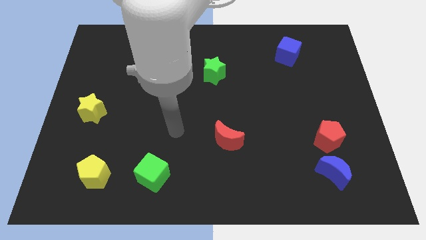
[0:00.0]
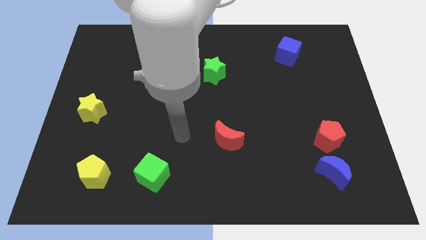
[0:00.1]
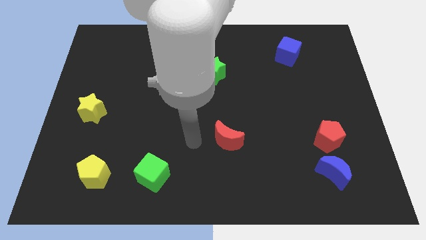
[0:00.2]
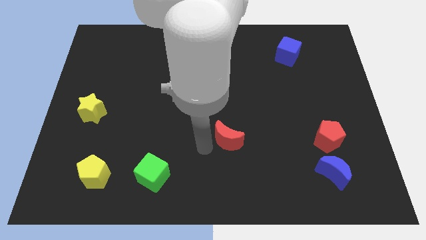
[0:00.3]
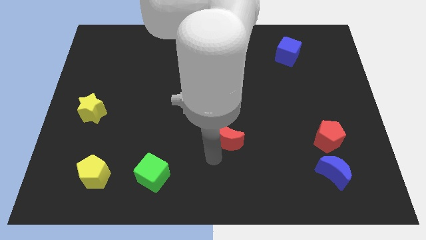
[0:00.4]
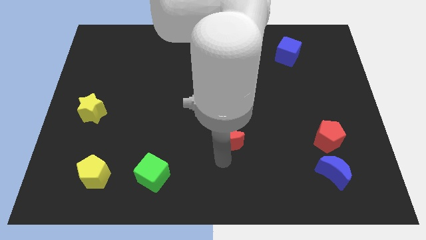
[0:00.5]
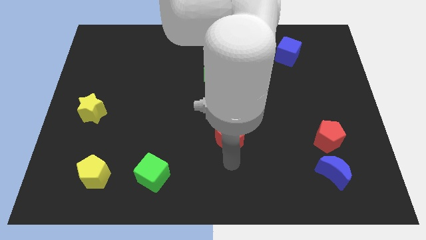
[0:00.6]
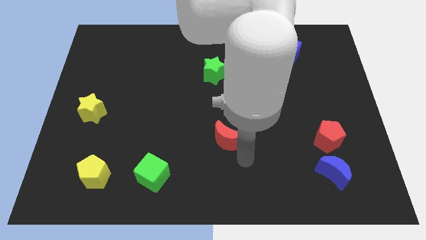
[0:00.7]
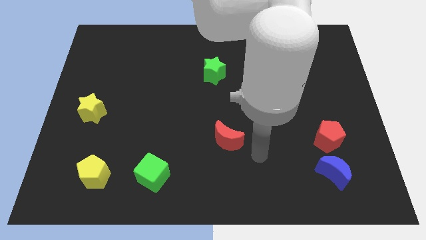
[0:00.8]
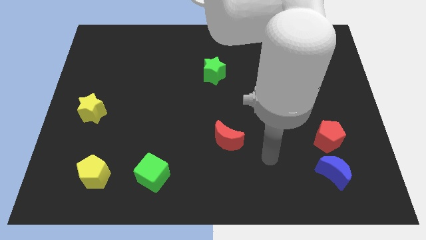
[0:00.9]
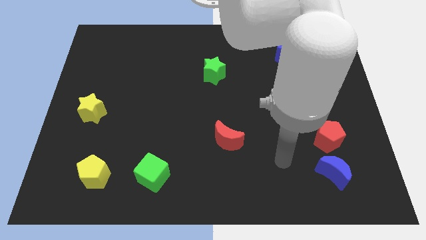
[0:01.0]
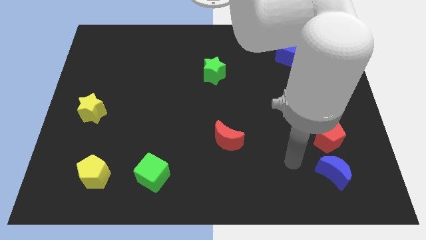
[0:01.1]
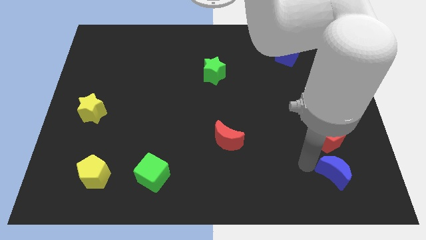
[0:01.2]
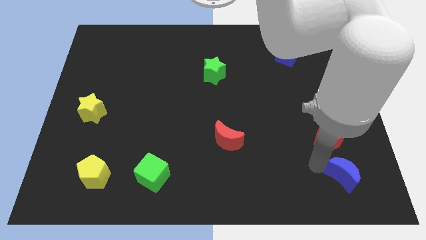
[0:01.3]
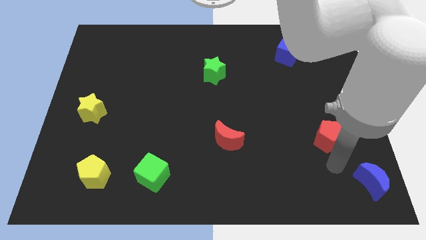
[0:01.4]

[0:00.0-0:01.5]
separate the red pentagon from the blue moon

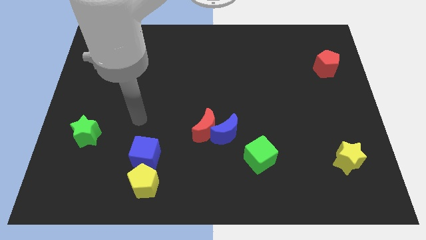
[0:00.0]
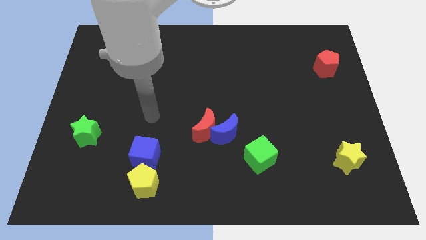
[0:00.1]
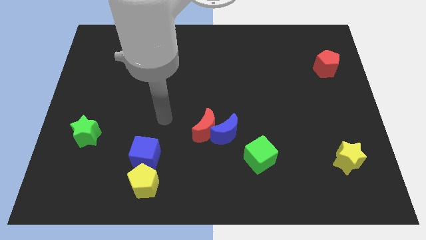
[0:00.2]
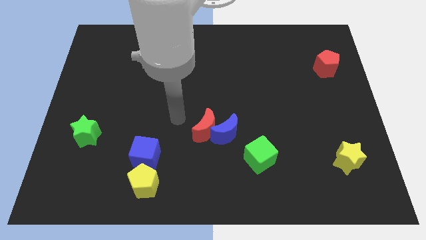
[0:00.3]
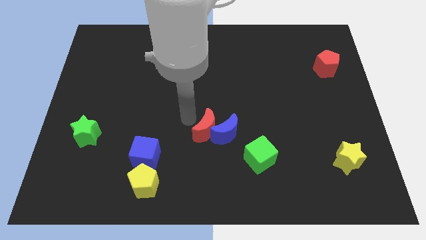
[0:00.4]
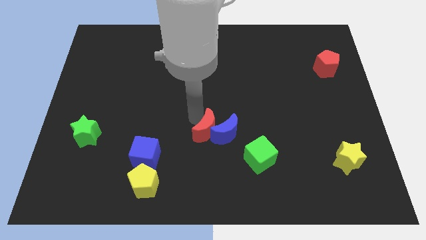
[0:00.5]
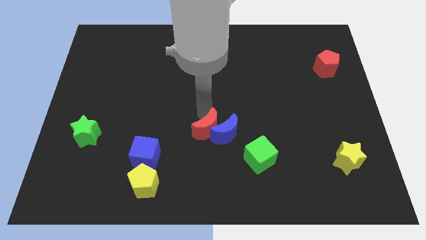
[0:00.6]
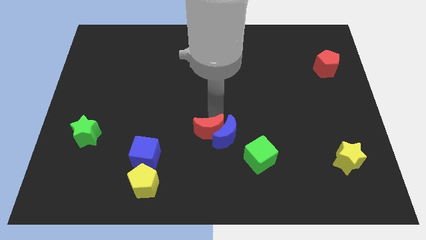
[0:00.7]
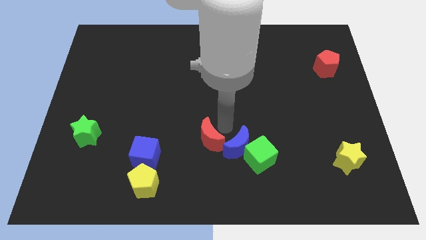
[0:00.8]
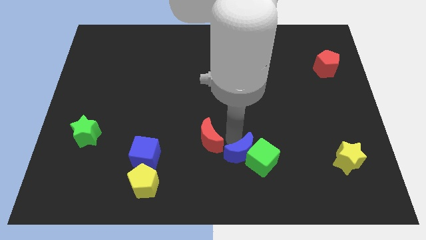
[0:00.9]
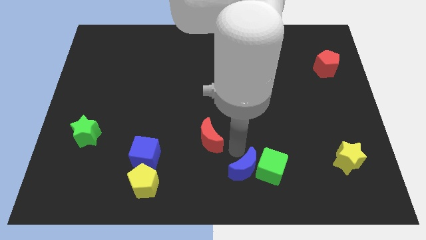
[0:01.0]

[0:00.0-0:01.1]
move the red moon away from the blue moon

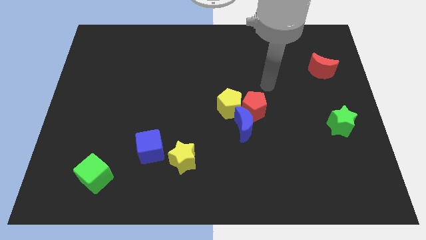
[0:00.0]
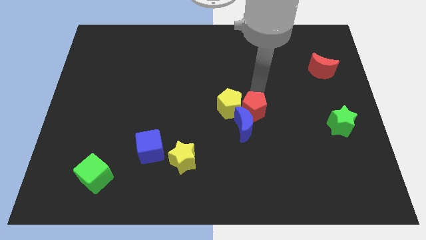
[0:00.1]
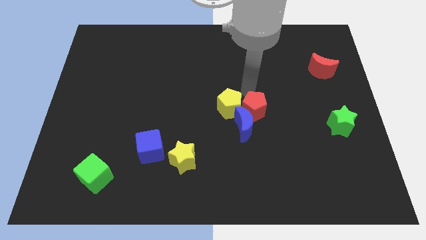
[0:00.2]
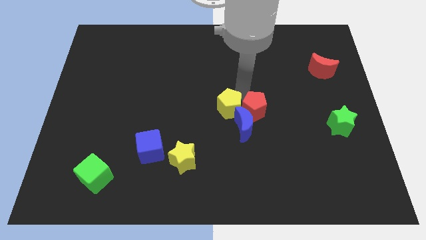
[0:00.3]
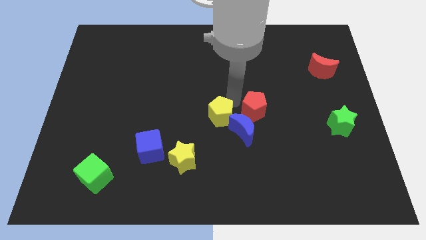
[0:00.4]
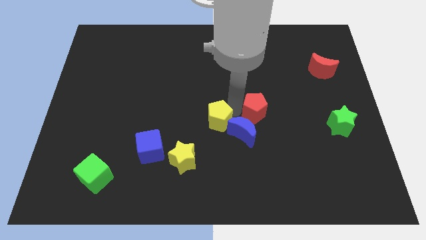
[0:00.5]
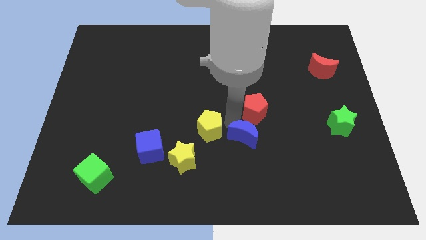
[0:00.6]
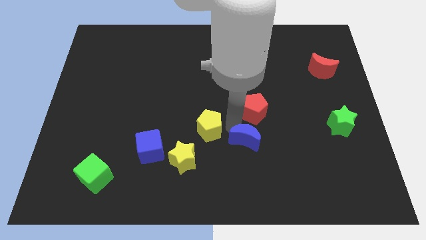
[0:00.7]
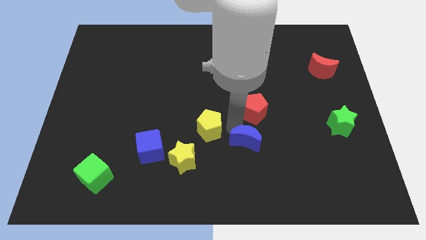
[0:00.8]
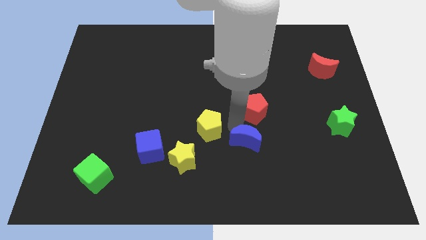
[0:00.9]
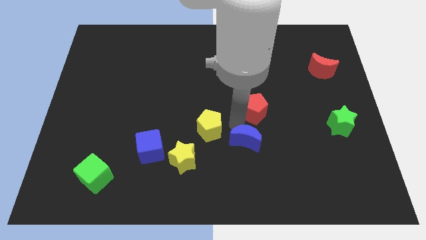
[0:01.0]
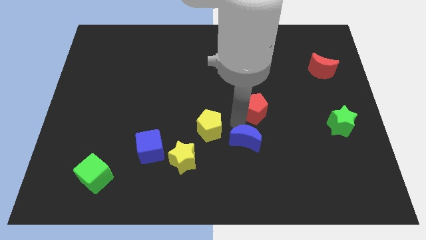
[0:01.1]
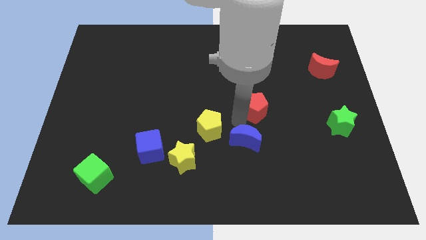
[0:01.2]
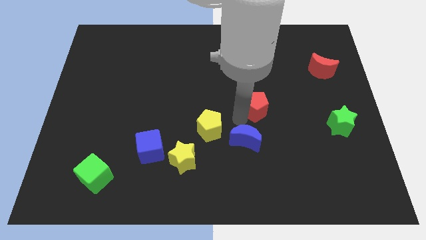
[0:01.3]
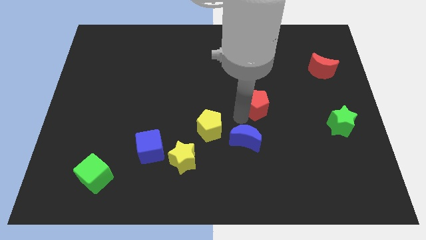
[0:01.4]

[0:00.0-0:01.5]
pull the red pentagon apart from the yellow pentagon and blue moon

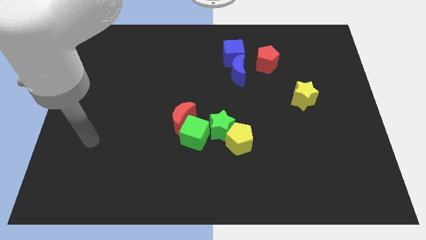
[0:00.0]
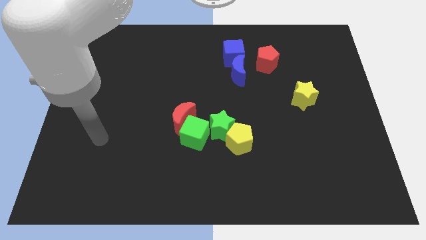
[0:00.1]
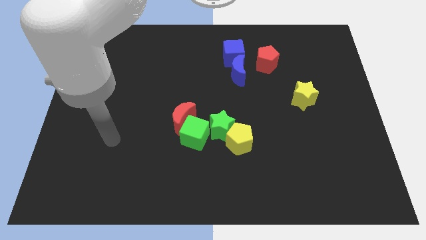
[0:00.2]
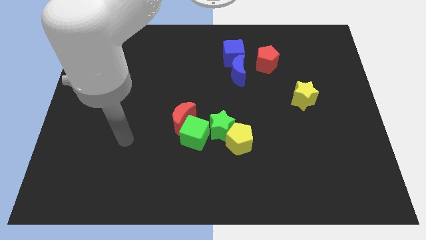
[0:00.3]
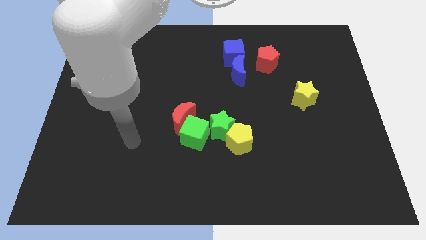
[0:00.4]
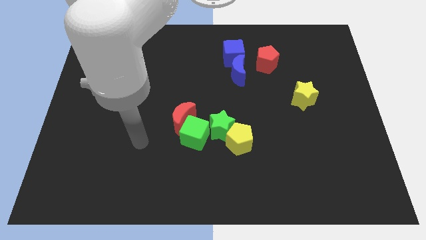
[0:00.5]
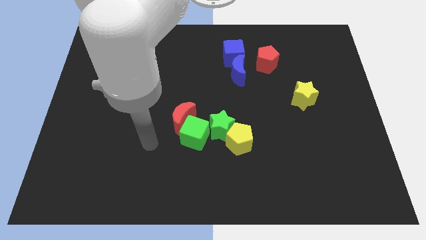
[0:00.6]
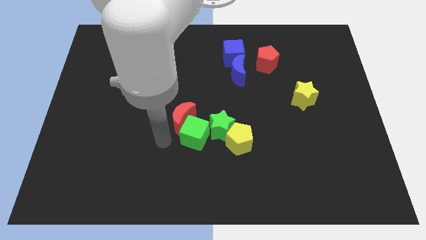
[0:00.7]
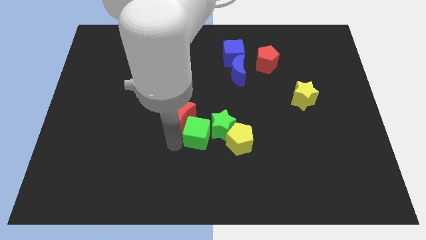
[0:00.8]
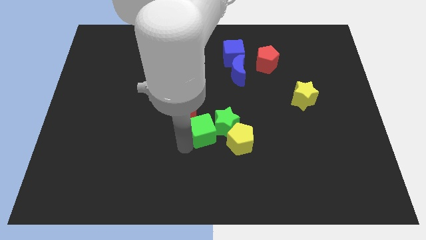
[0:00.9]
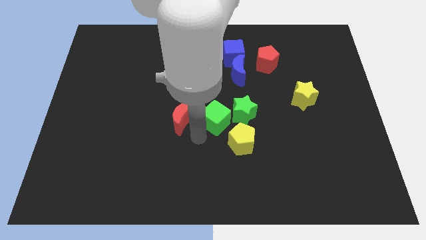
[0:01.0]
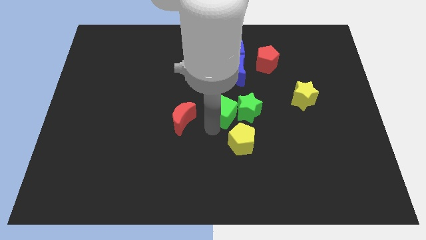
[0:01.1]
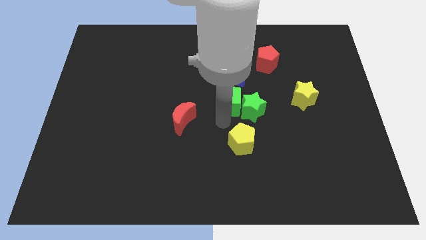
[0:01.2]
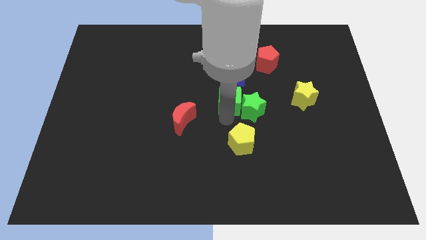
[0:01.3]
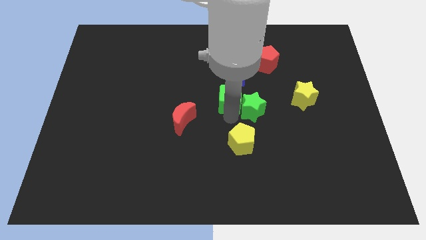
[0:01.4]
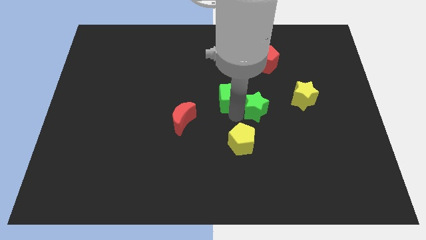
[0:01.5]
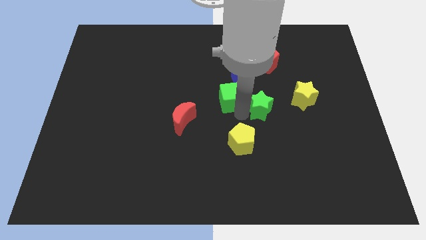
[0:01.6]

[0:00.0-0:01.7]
separate the green star from the yellow pentagon, green cube, and red moon

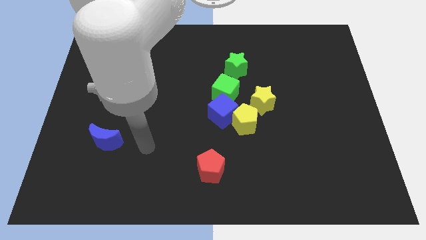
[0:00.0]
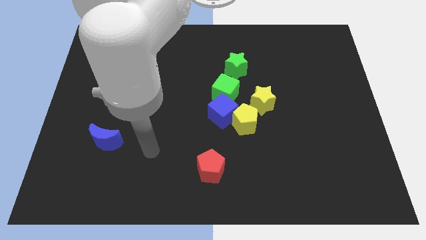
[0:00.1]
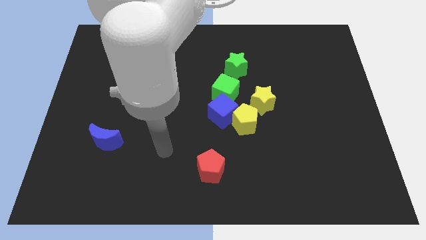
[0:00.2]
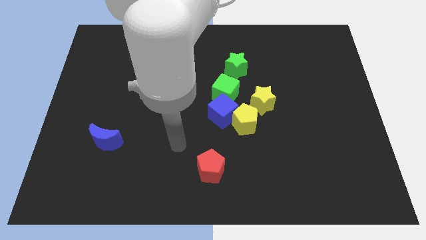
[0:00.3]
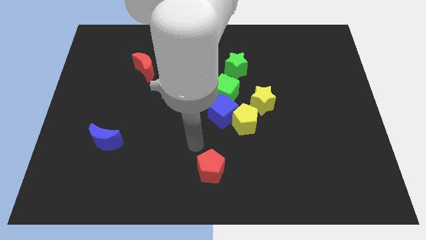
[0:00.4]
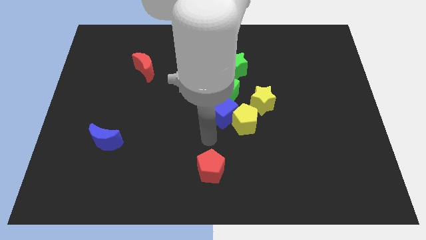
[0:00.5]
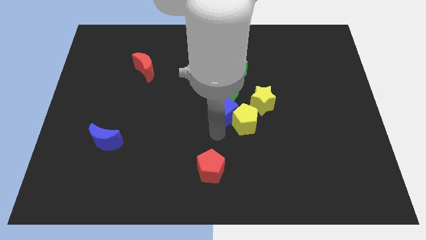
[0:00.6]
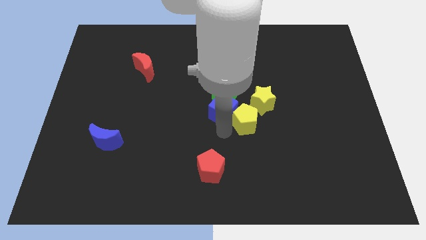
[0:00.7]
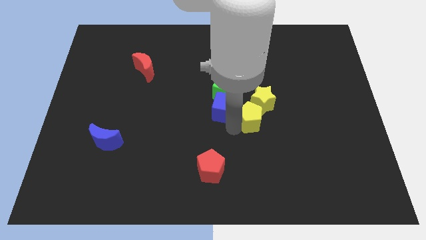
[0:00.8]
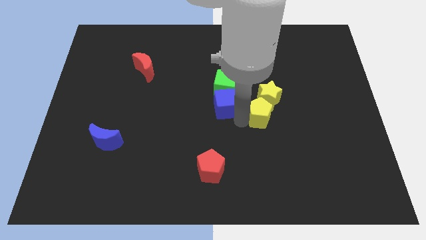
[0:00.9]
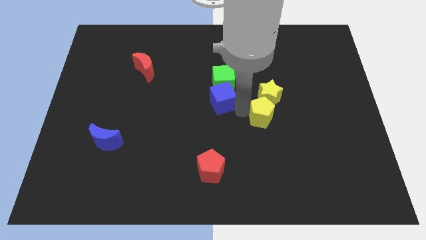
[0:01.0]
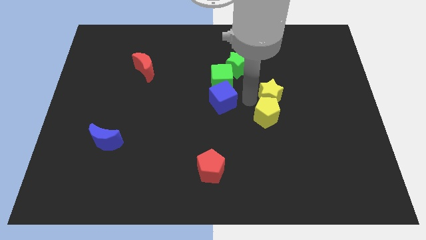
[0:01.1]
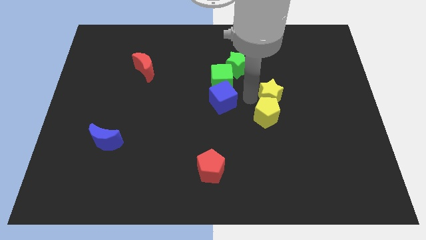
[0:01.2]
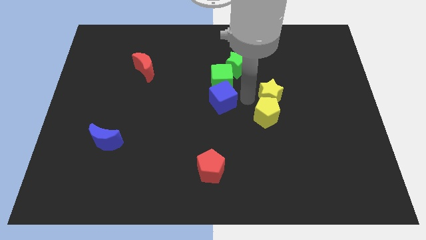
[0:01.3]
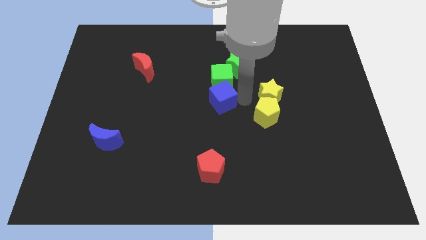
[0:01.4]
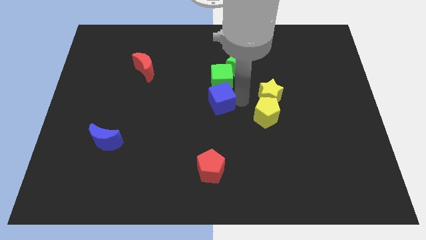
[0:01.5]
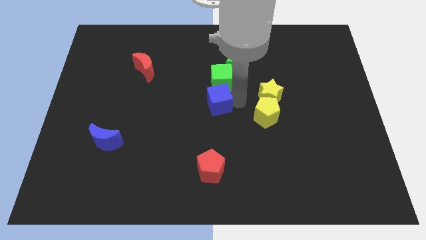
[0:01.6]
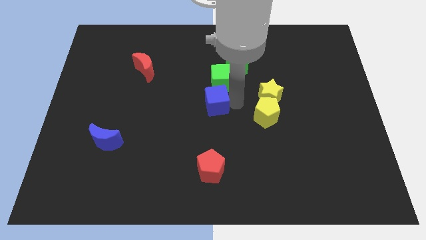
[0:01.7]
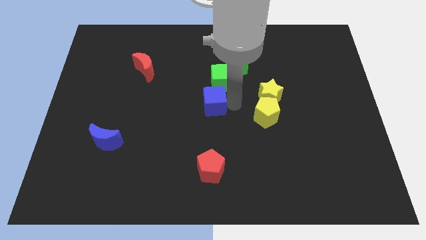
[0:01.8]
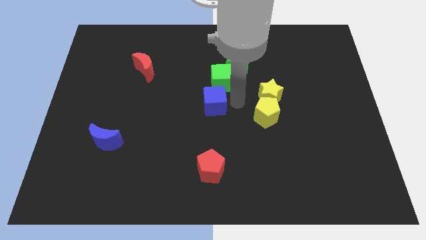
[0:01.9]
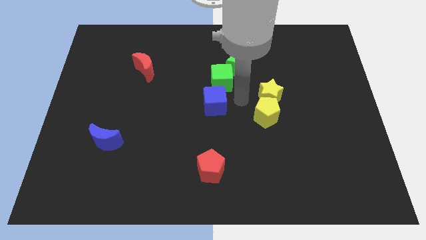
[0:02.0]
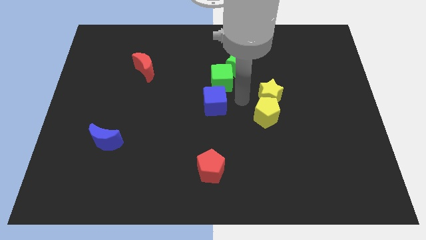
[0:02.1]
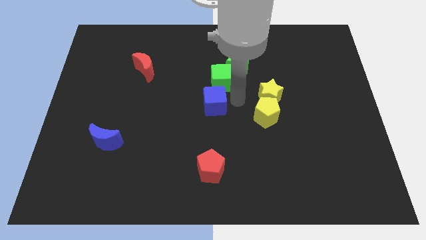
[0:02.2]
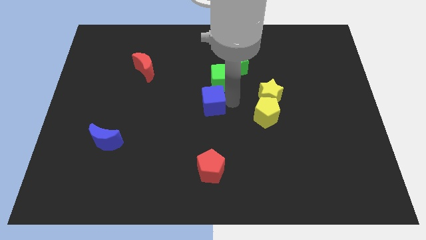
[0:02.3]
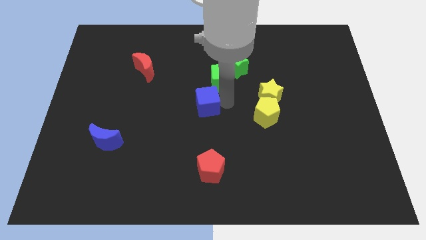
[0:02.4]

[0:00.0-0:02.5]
pull the blue cube apart from the group

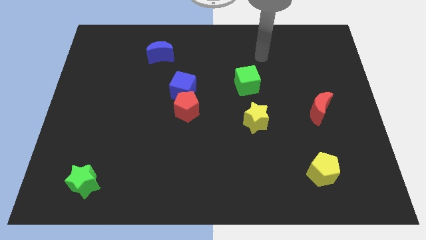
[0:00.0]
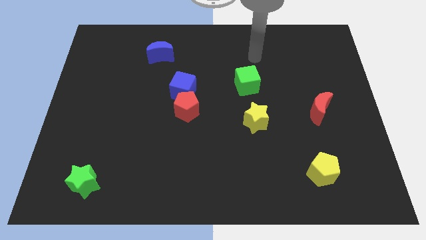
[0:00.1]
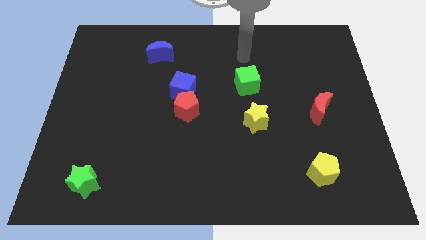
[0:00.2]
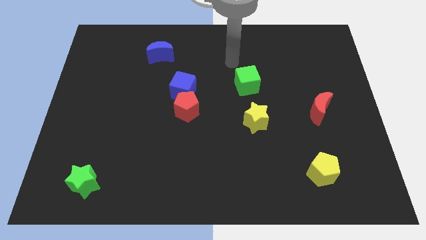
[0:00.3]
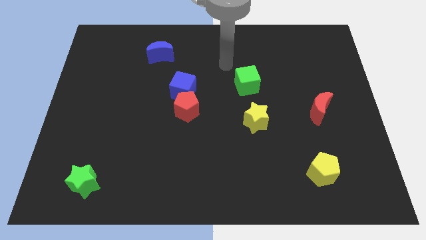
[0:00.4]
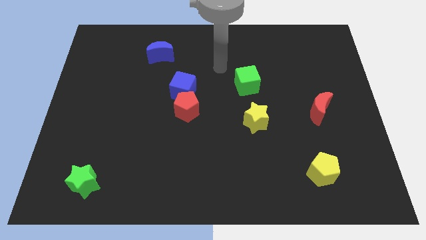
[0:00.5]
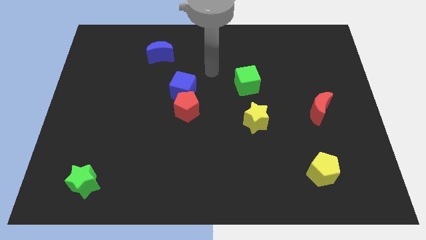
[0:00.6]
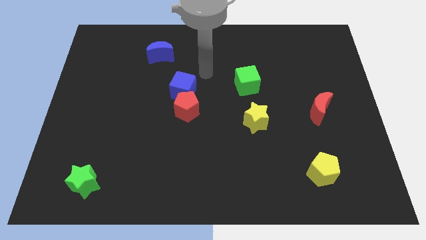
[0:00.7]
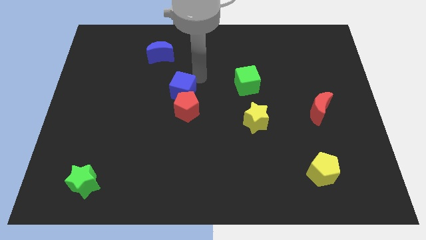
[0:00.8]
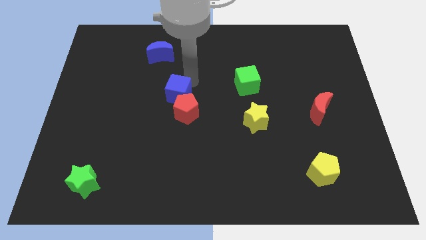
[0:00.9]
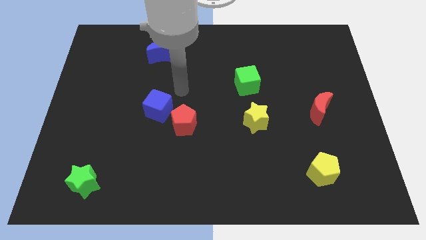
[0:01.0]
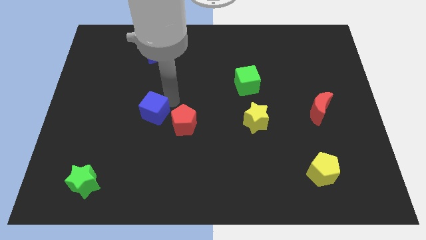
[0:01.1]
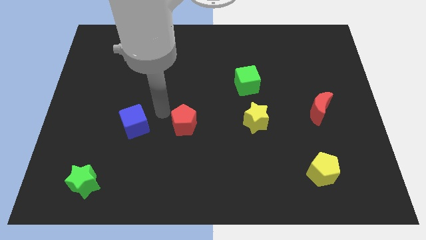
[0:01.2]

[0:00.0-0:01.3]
pull the red pentagon apart from the blue cube
